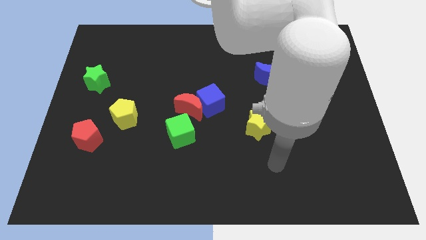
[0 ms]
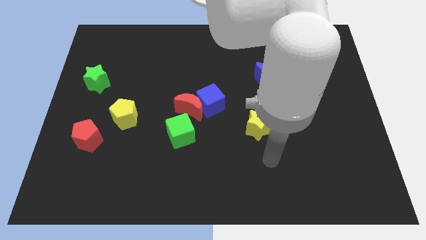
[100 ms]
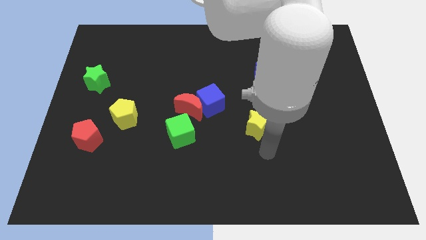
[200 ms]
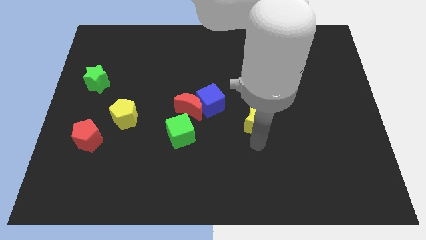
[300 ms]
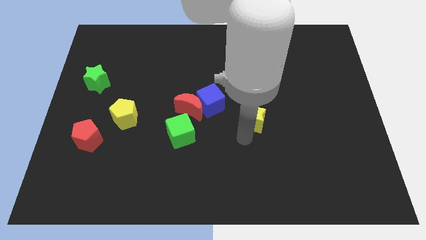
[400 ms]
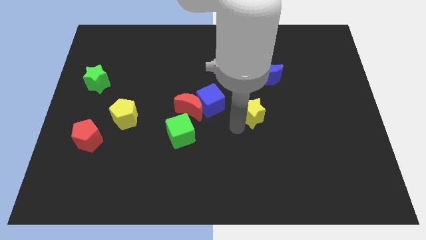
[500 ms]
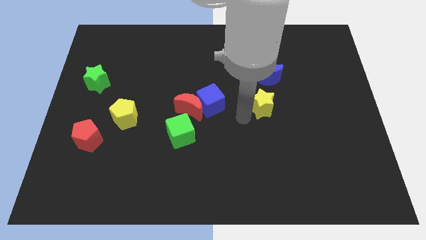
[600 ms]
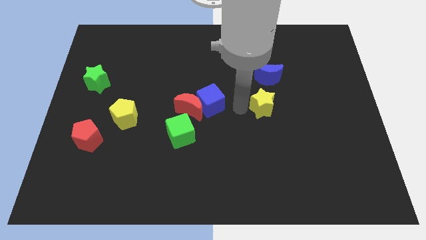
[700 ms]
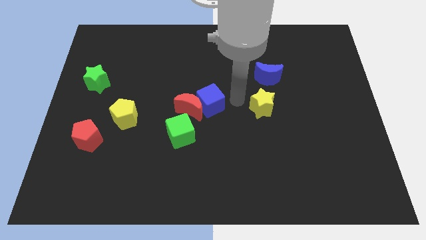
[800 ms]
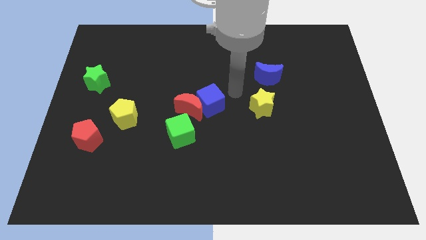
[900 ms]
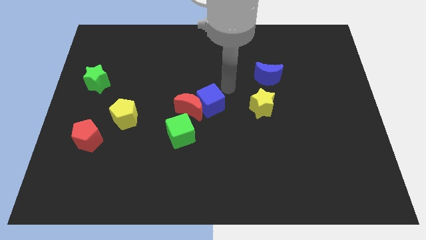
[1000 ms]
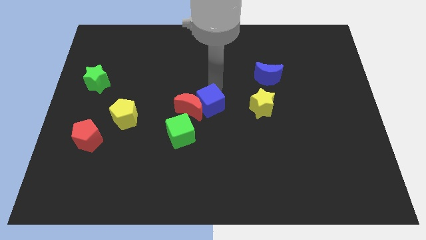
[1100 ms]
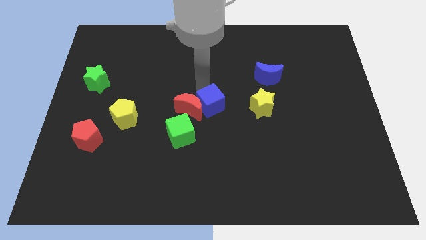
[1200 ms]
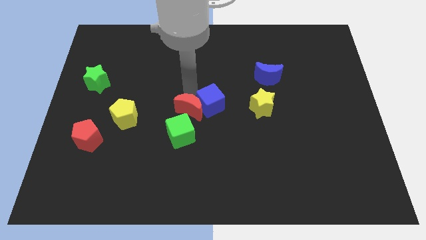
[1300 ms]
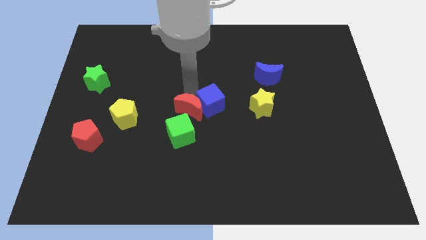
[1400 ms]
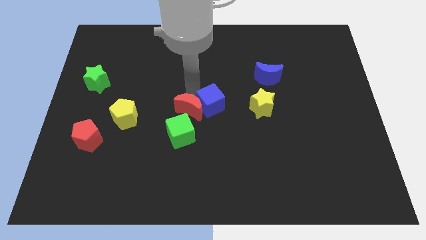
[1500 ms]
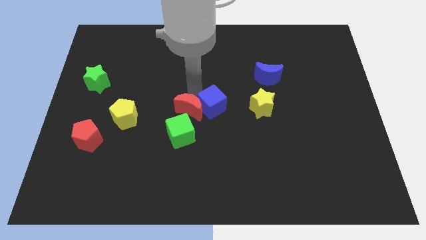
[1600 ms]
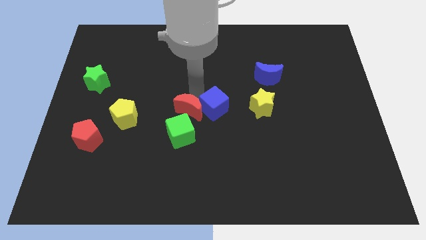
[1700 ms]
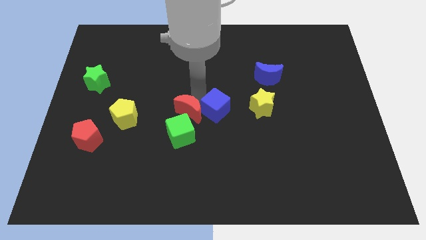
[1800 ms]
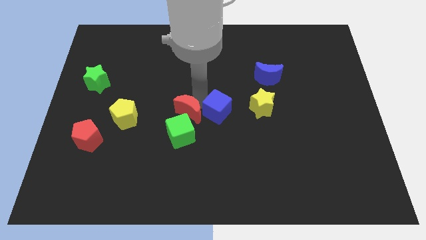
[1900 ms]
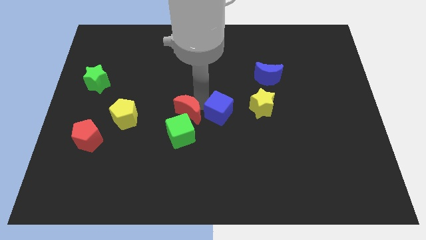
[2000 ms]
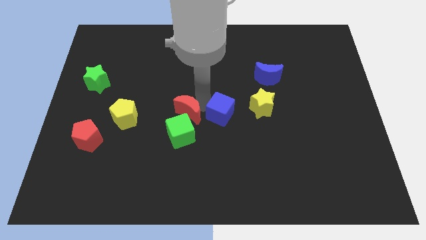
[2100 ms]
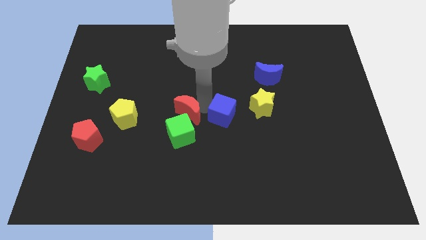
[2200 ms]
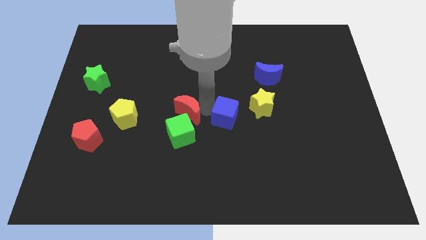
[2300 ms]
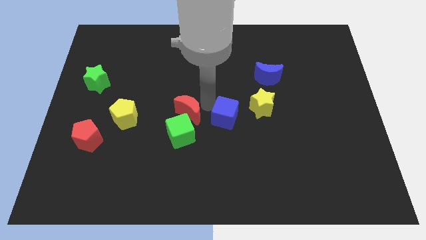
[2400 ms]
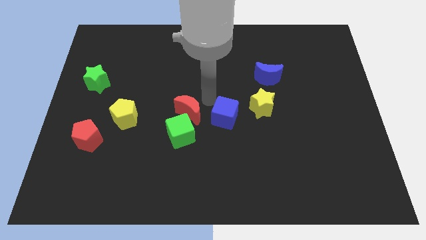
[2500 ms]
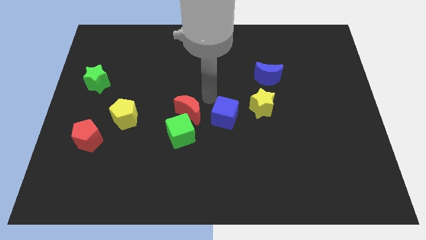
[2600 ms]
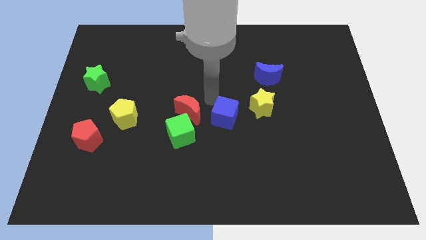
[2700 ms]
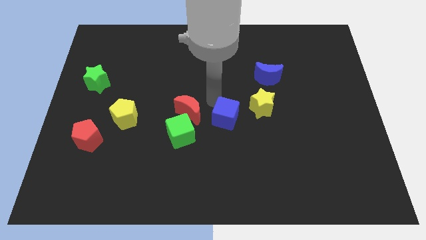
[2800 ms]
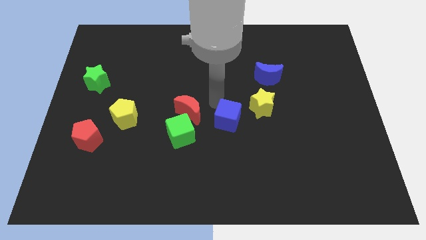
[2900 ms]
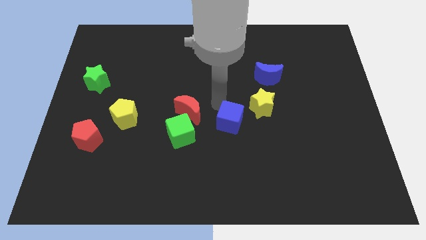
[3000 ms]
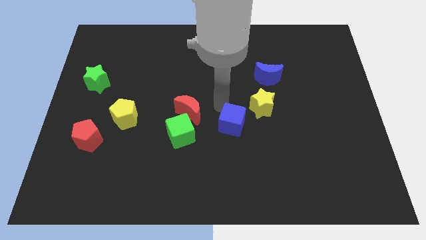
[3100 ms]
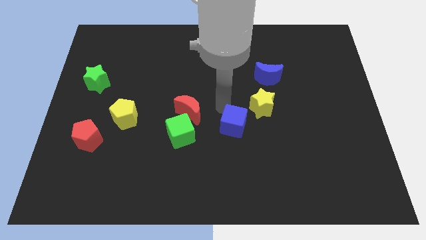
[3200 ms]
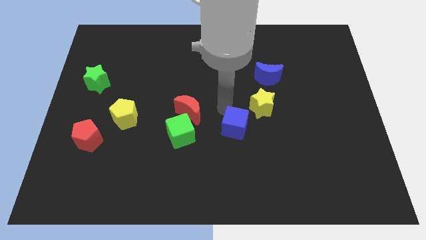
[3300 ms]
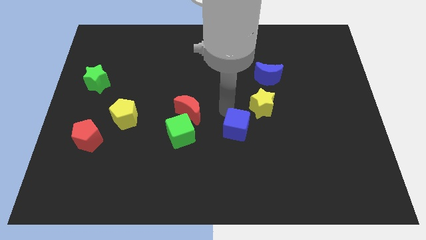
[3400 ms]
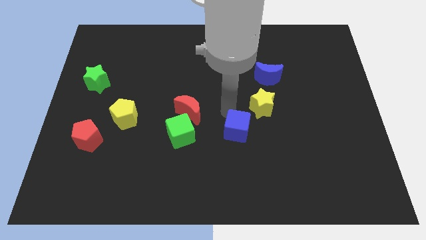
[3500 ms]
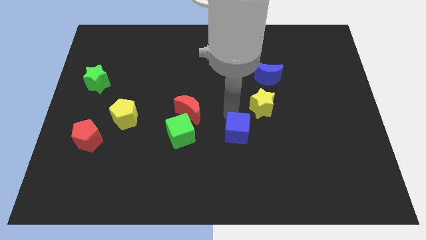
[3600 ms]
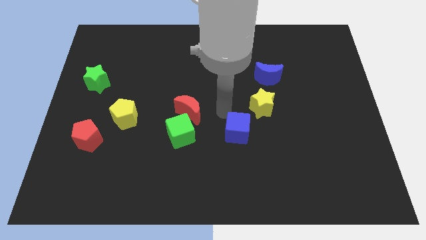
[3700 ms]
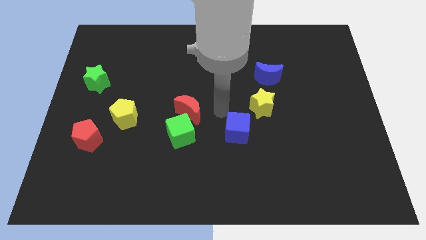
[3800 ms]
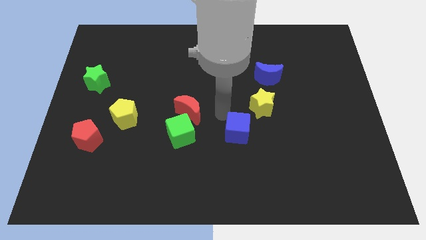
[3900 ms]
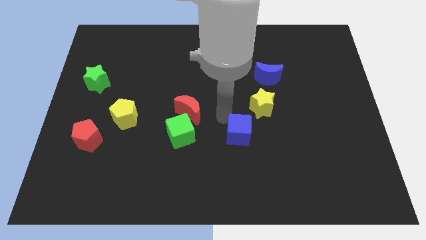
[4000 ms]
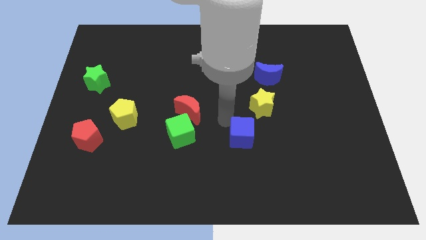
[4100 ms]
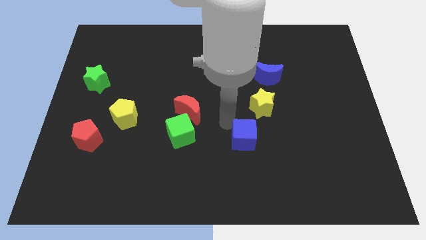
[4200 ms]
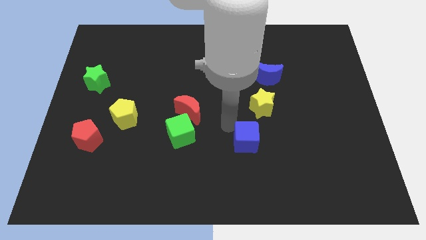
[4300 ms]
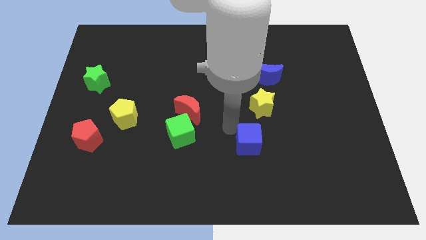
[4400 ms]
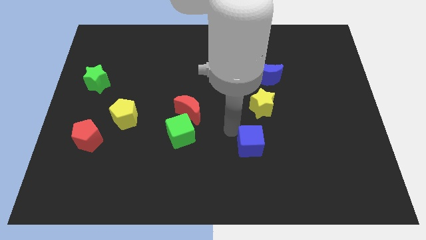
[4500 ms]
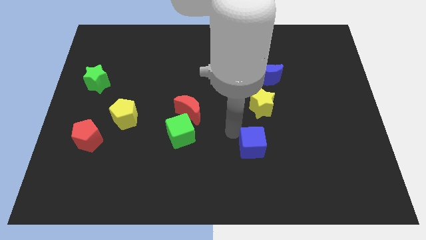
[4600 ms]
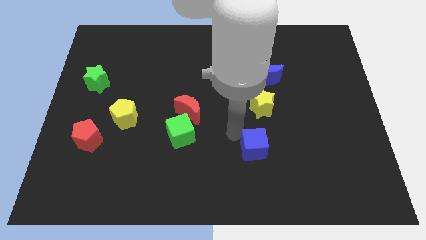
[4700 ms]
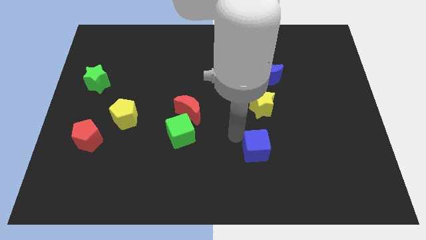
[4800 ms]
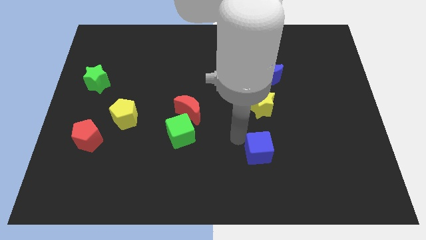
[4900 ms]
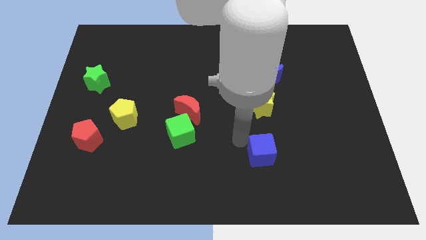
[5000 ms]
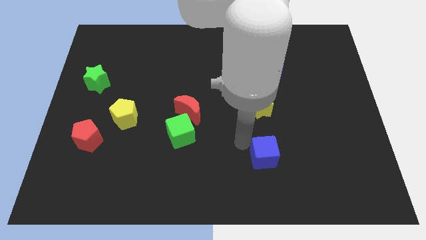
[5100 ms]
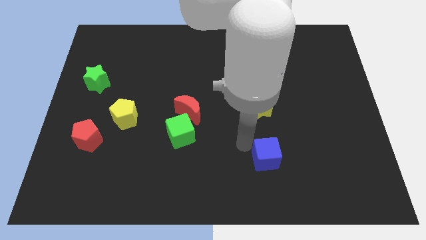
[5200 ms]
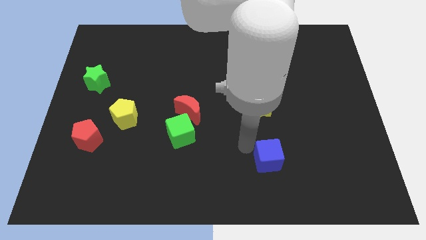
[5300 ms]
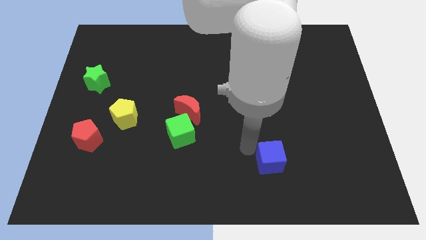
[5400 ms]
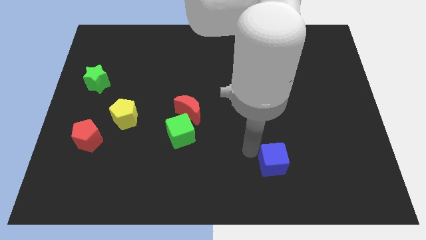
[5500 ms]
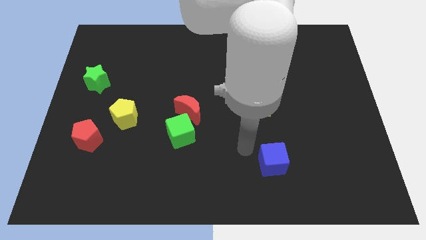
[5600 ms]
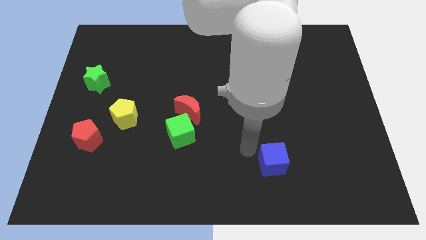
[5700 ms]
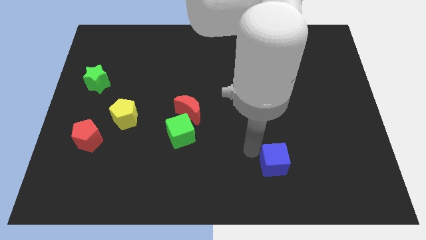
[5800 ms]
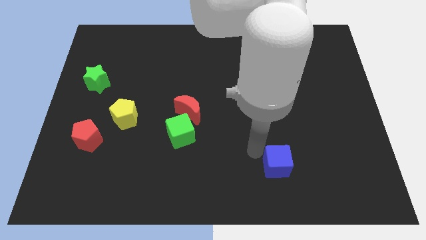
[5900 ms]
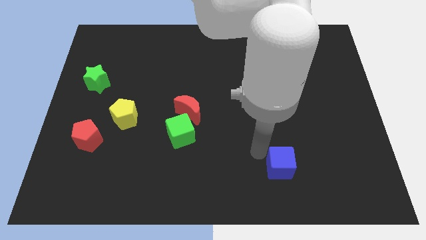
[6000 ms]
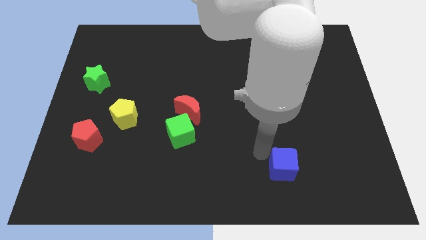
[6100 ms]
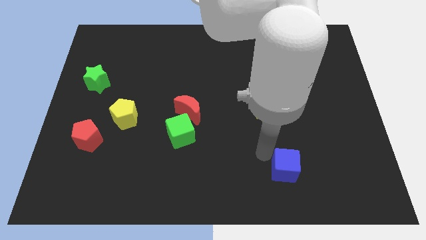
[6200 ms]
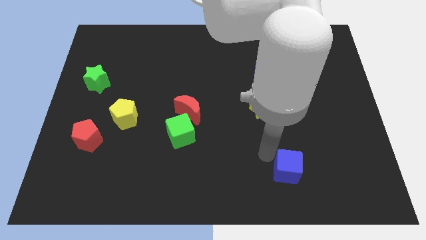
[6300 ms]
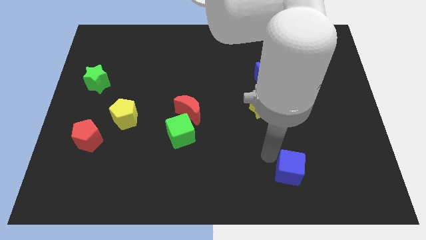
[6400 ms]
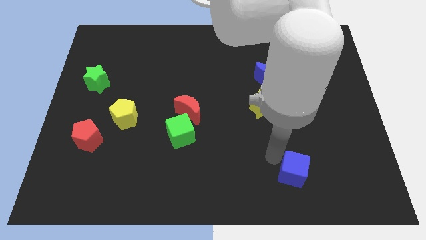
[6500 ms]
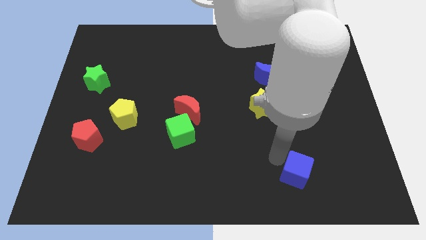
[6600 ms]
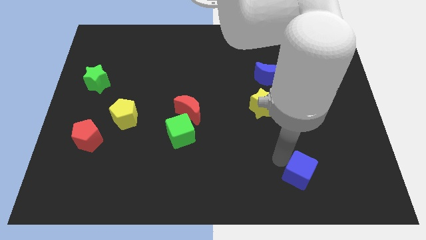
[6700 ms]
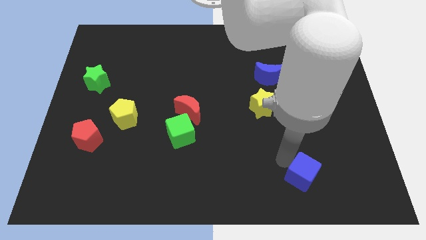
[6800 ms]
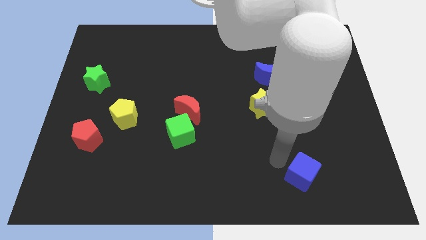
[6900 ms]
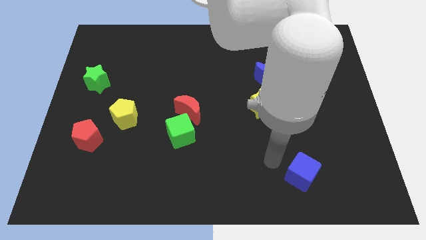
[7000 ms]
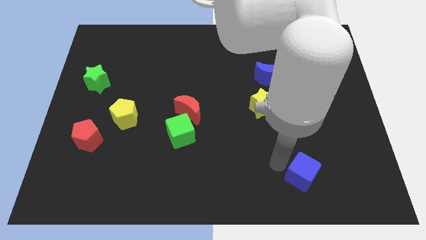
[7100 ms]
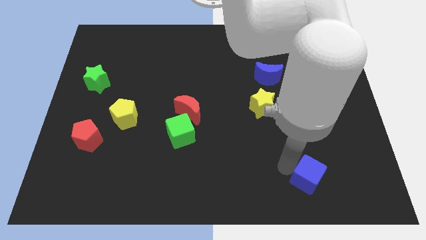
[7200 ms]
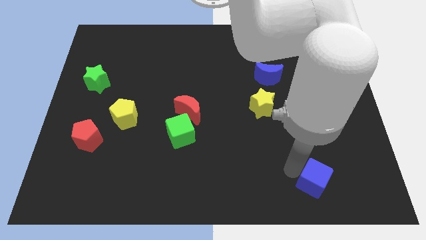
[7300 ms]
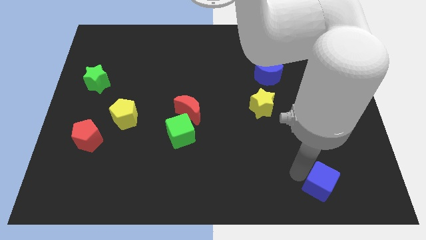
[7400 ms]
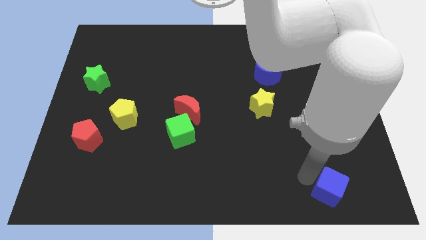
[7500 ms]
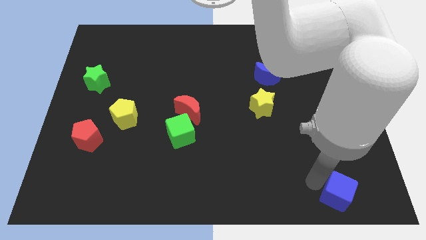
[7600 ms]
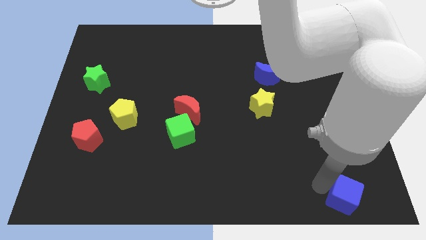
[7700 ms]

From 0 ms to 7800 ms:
push the blue cube to the bottom right
